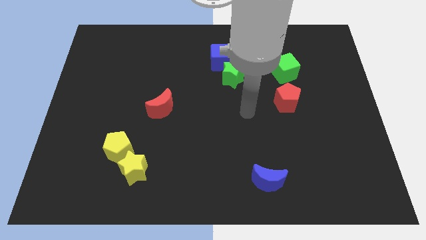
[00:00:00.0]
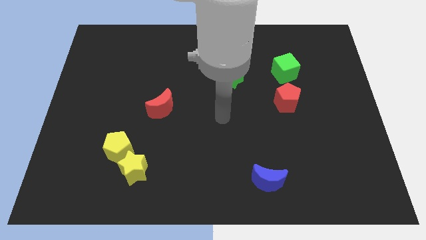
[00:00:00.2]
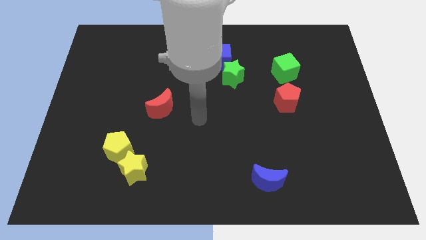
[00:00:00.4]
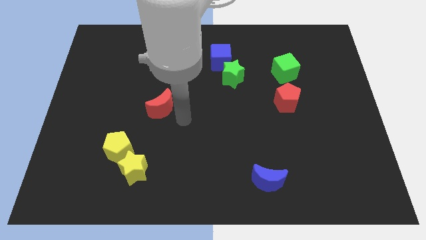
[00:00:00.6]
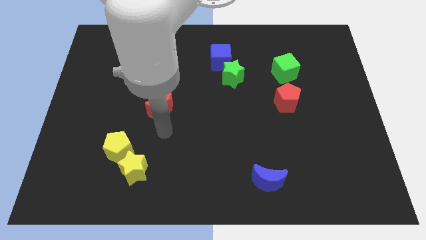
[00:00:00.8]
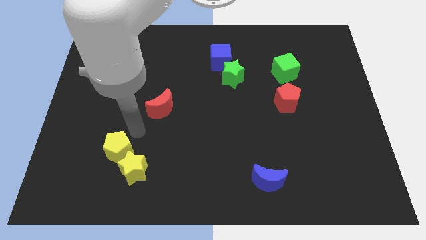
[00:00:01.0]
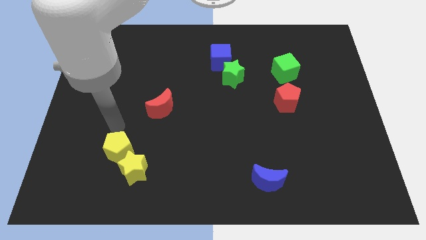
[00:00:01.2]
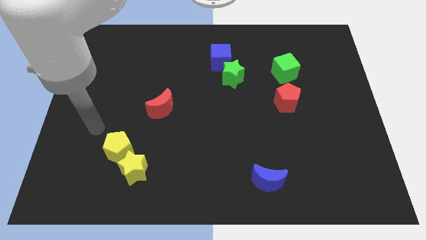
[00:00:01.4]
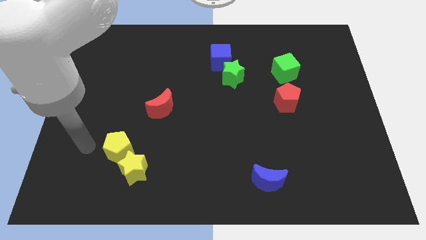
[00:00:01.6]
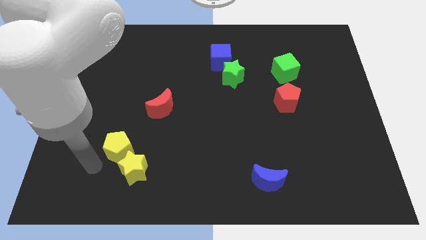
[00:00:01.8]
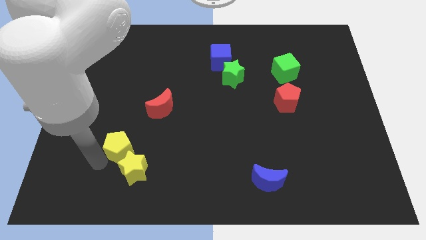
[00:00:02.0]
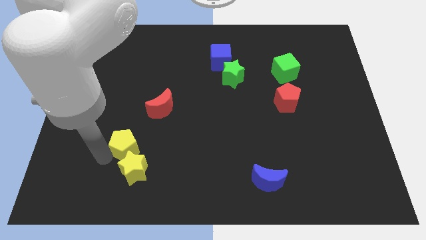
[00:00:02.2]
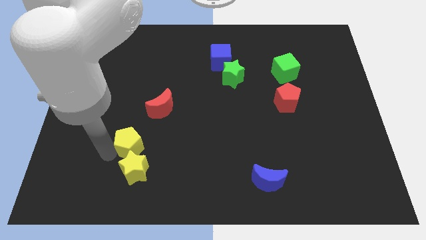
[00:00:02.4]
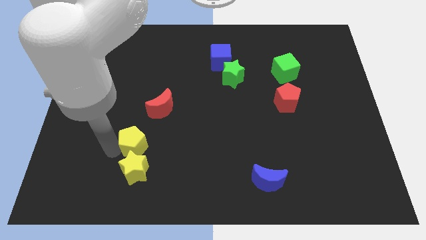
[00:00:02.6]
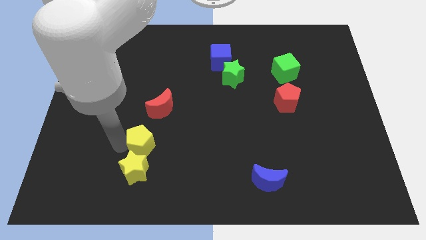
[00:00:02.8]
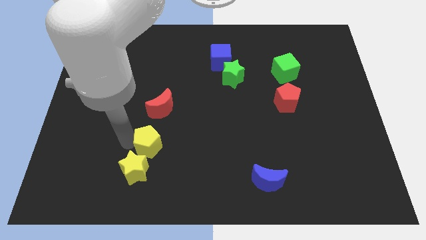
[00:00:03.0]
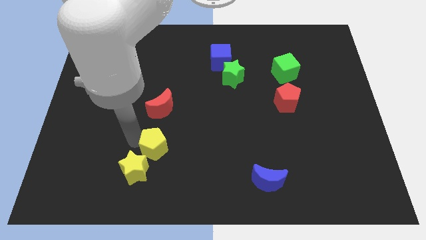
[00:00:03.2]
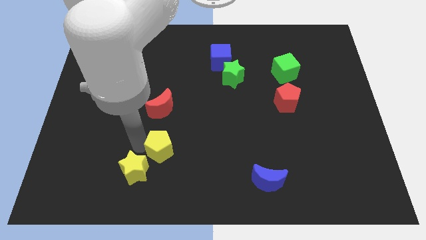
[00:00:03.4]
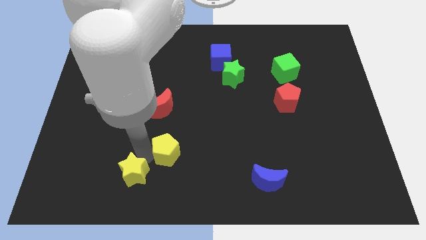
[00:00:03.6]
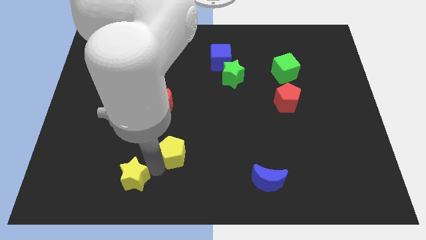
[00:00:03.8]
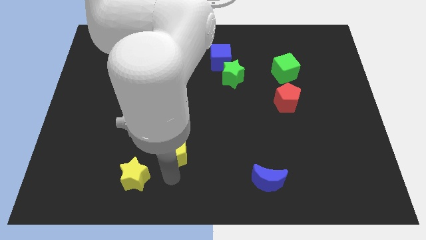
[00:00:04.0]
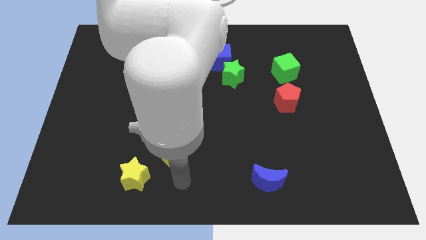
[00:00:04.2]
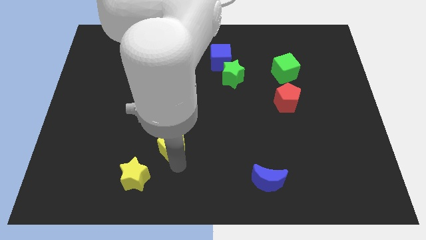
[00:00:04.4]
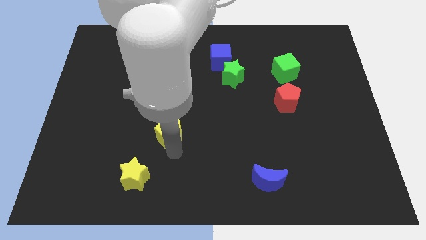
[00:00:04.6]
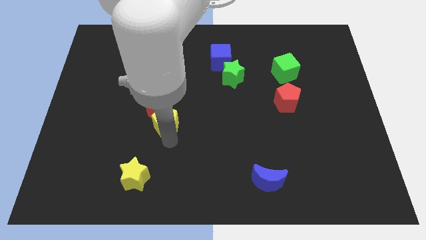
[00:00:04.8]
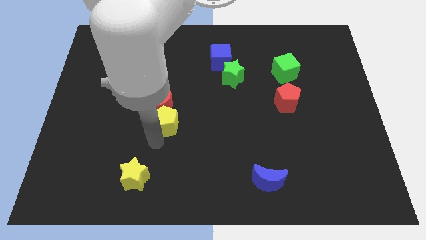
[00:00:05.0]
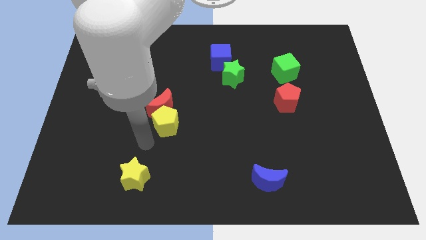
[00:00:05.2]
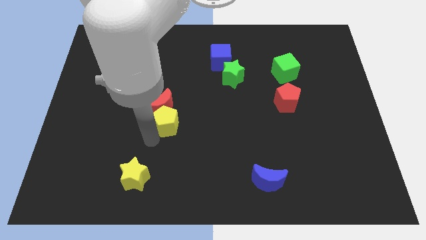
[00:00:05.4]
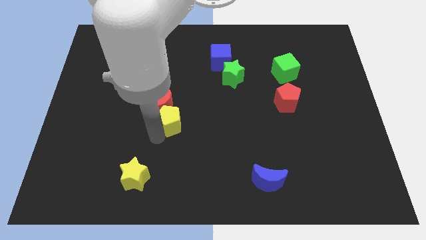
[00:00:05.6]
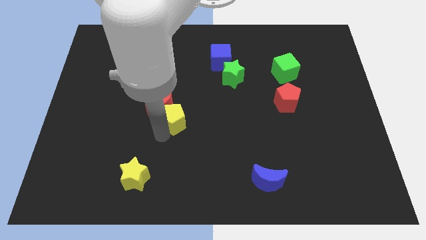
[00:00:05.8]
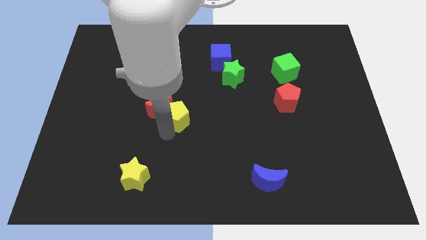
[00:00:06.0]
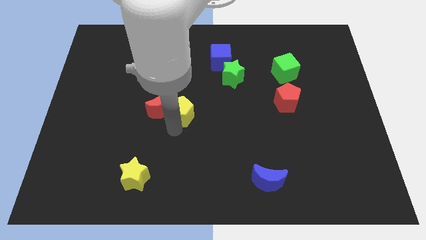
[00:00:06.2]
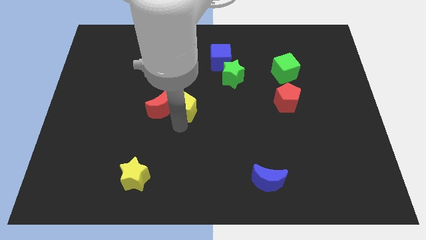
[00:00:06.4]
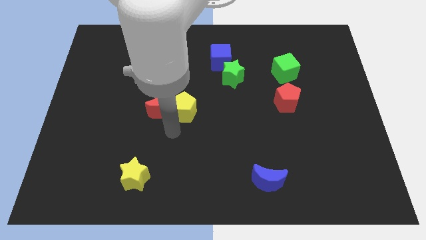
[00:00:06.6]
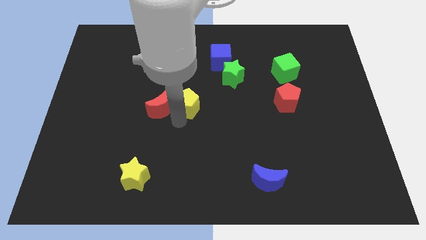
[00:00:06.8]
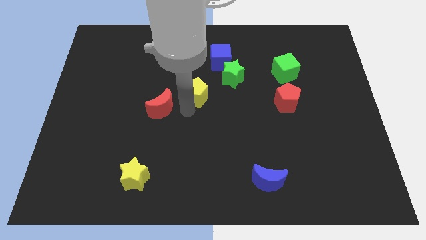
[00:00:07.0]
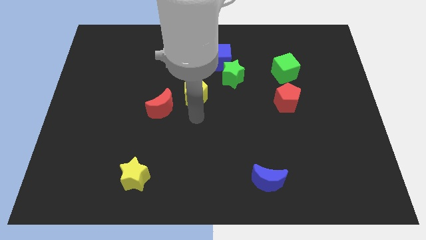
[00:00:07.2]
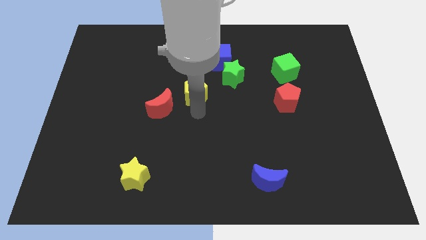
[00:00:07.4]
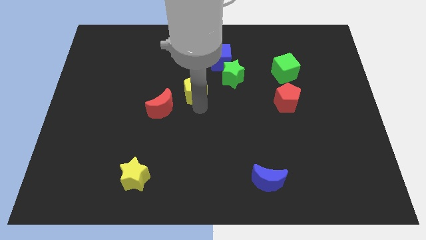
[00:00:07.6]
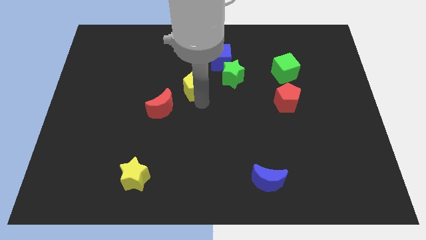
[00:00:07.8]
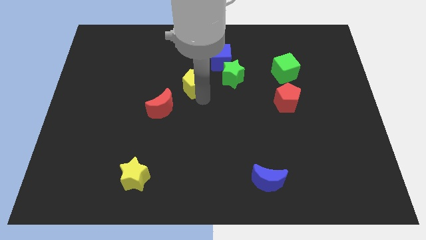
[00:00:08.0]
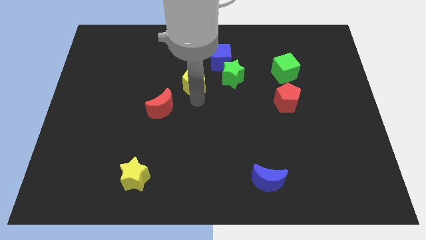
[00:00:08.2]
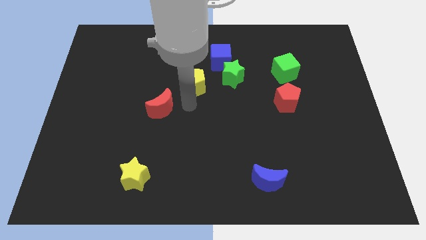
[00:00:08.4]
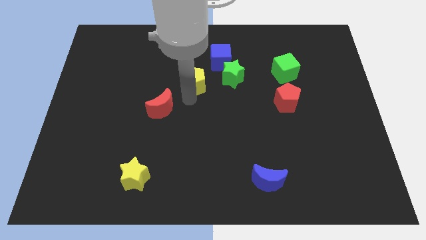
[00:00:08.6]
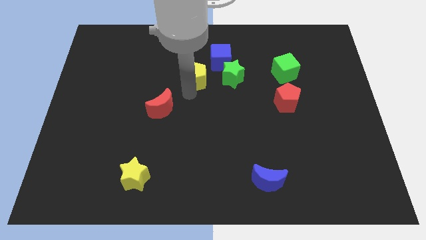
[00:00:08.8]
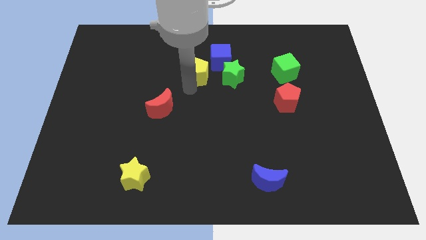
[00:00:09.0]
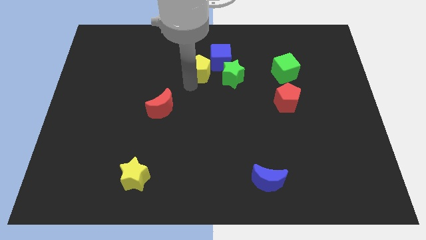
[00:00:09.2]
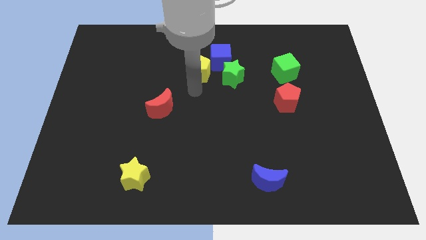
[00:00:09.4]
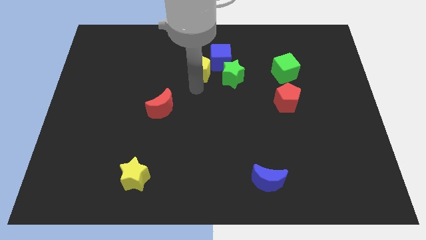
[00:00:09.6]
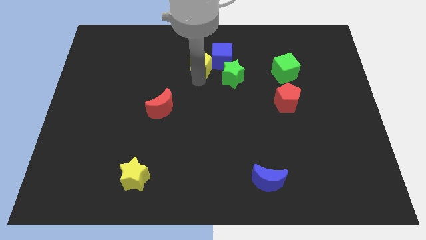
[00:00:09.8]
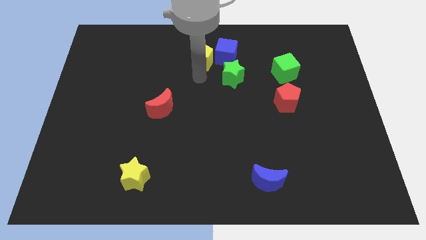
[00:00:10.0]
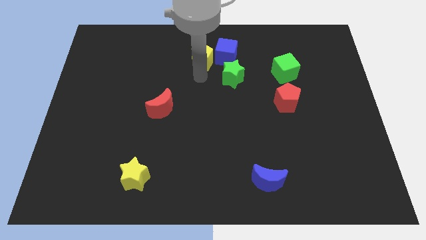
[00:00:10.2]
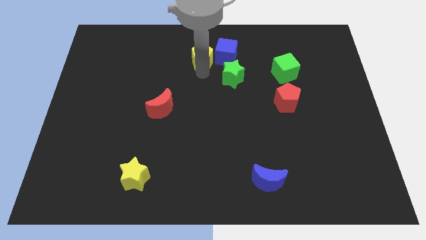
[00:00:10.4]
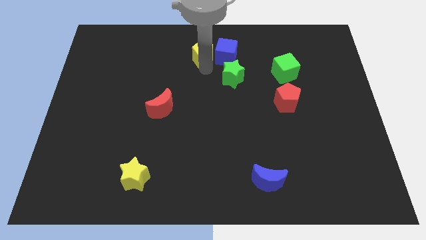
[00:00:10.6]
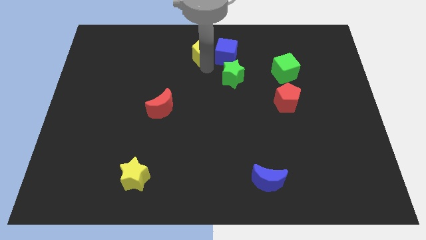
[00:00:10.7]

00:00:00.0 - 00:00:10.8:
put the yellow pentagon to the top

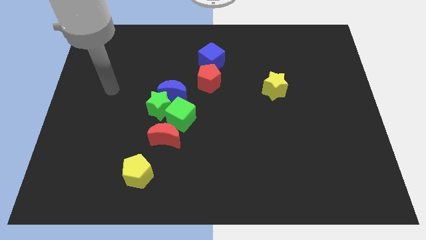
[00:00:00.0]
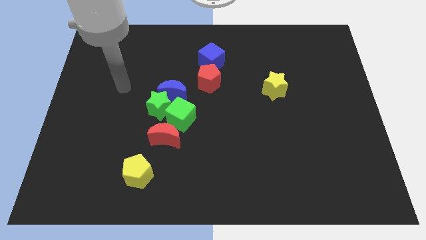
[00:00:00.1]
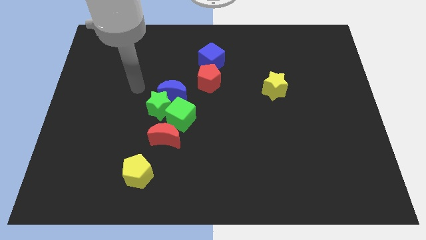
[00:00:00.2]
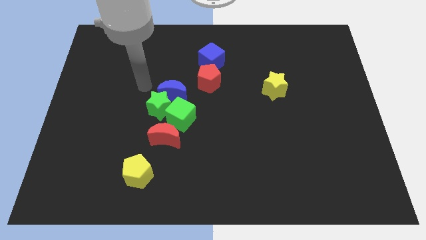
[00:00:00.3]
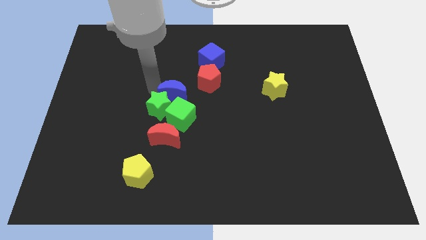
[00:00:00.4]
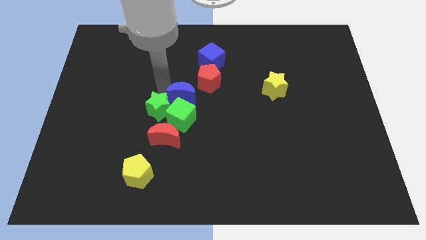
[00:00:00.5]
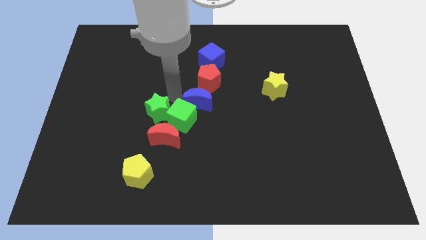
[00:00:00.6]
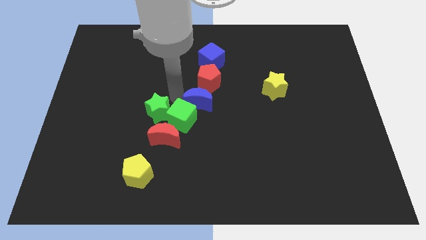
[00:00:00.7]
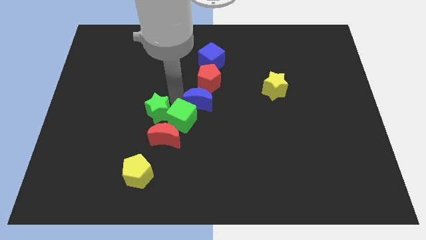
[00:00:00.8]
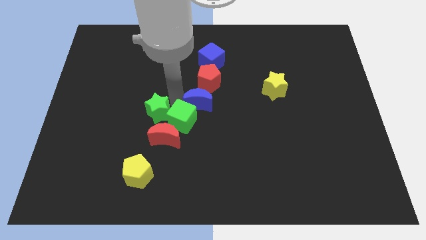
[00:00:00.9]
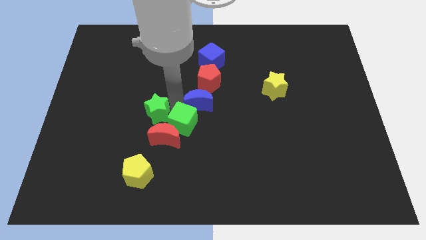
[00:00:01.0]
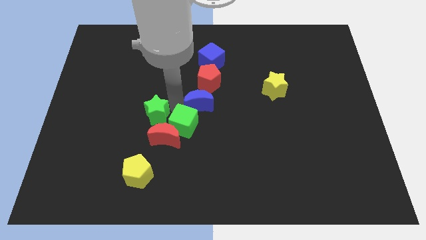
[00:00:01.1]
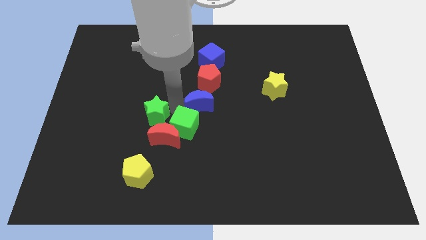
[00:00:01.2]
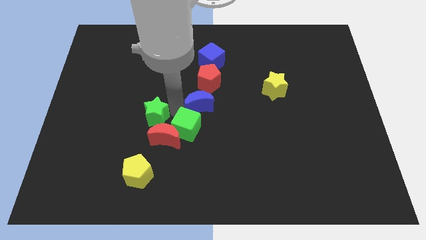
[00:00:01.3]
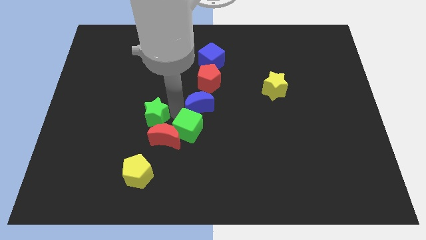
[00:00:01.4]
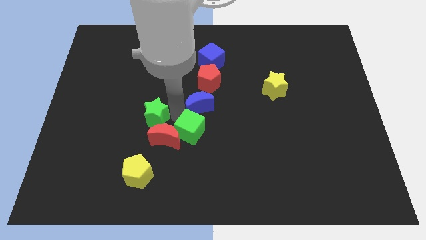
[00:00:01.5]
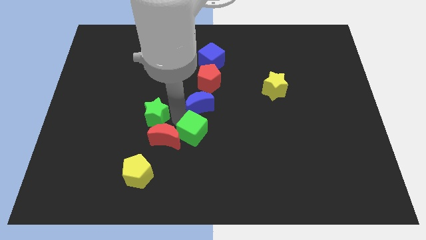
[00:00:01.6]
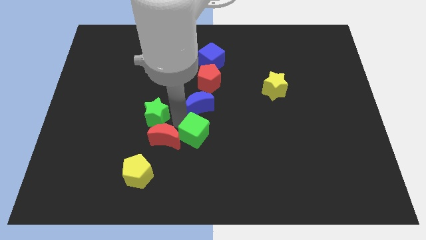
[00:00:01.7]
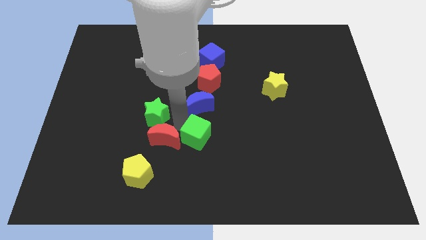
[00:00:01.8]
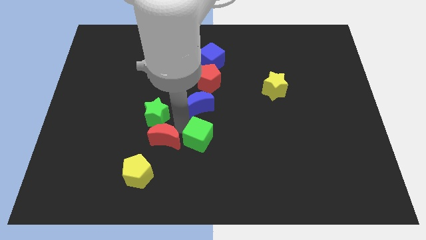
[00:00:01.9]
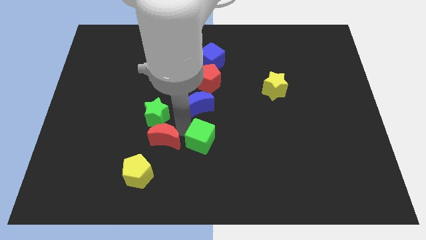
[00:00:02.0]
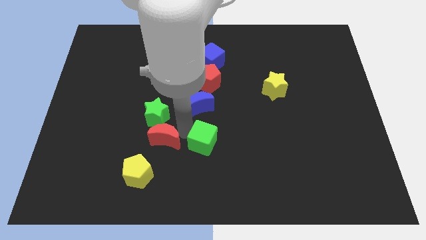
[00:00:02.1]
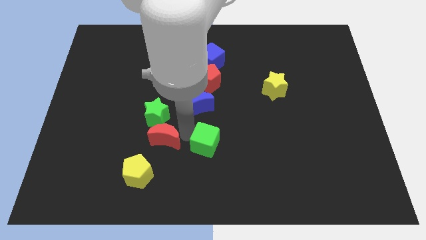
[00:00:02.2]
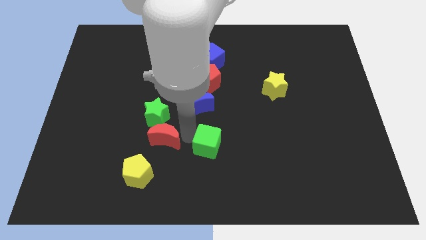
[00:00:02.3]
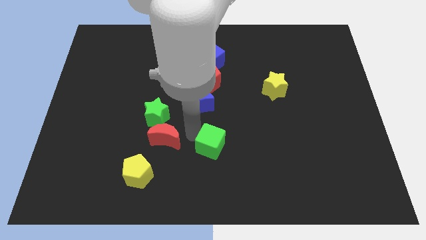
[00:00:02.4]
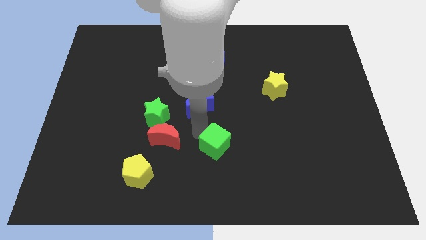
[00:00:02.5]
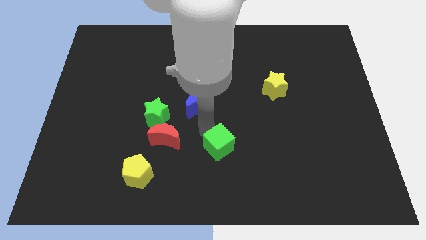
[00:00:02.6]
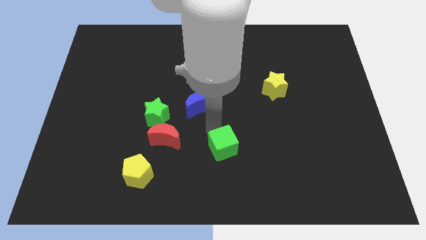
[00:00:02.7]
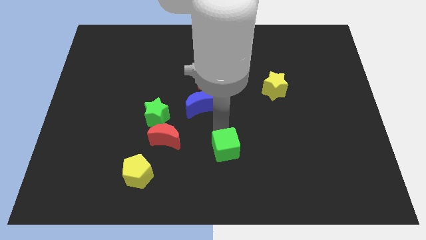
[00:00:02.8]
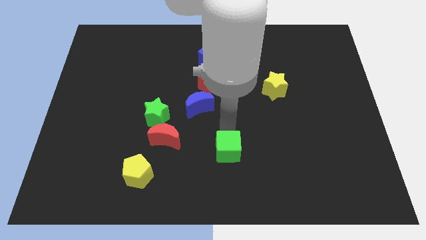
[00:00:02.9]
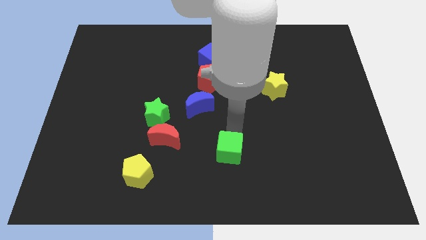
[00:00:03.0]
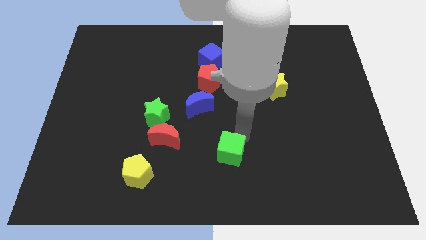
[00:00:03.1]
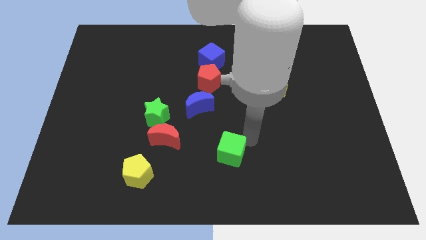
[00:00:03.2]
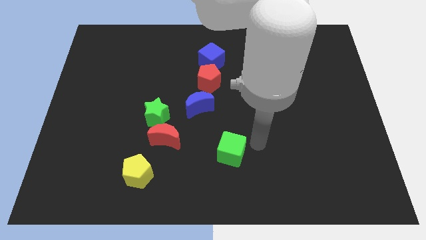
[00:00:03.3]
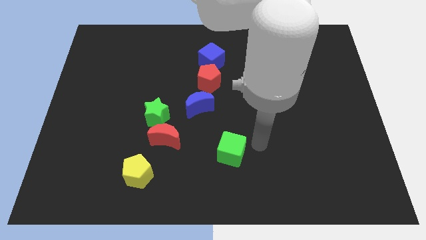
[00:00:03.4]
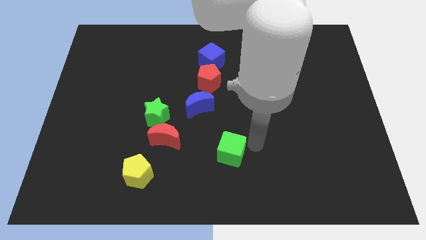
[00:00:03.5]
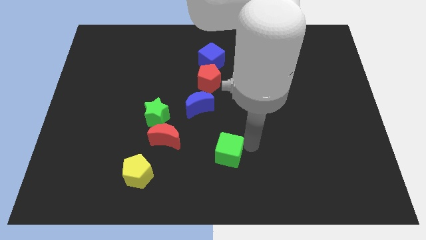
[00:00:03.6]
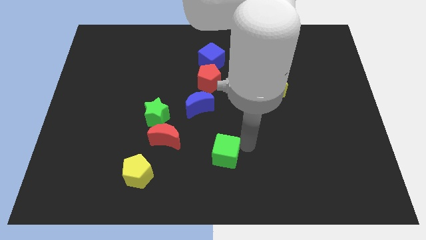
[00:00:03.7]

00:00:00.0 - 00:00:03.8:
push the green cube to the bottom
